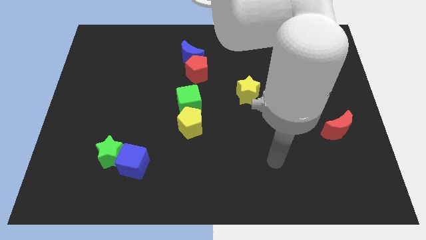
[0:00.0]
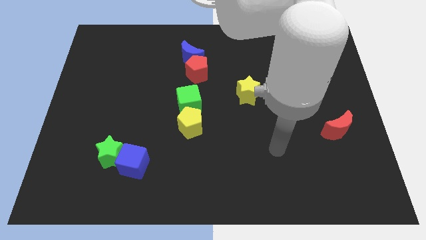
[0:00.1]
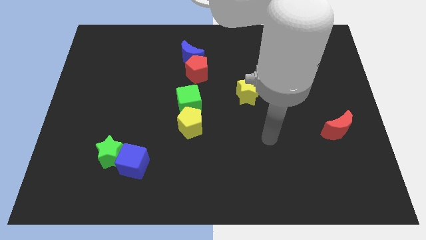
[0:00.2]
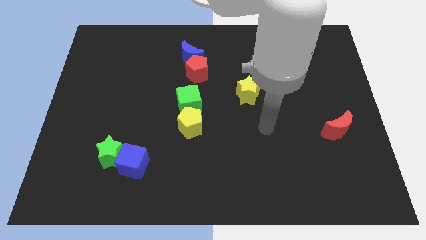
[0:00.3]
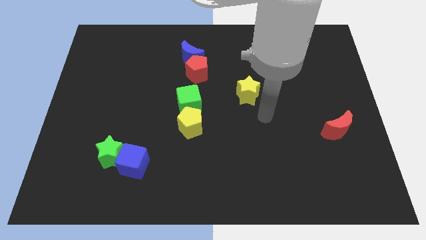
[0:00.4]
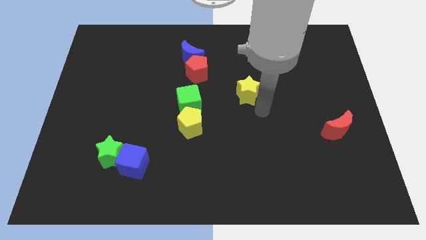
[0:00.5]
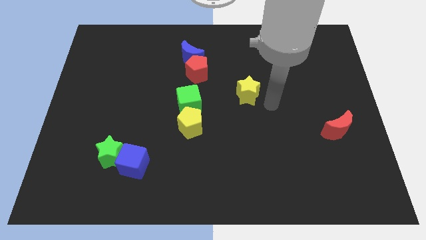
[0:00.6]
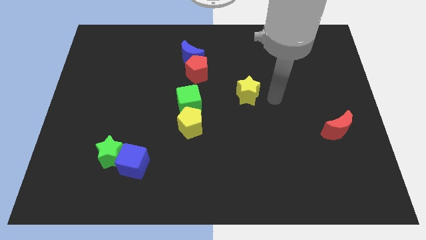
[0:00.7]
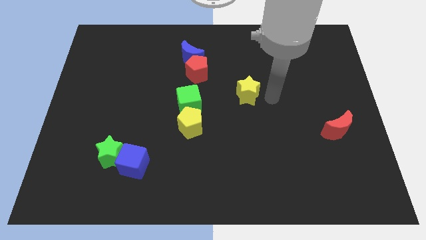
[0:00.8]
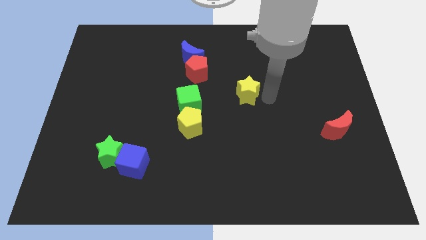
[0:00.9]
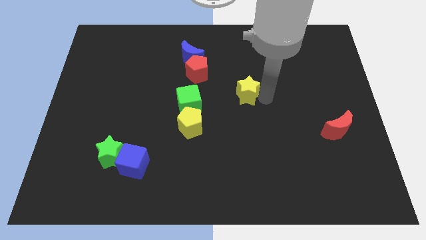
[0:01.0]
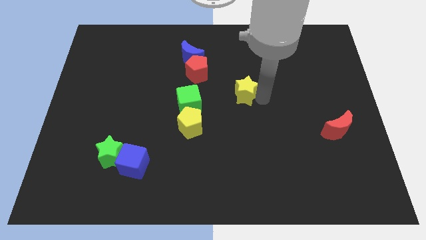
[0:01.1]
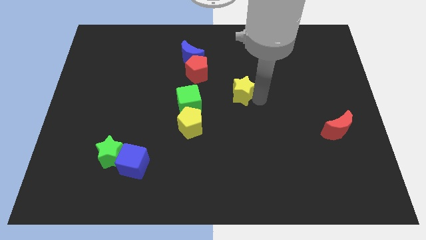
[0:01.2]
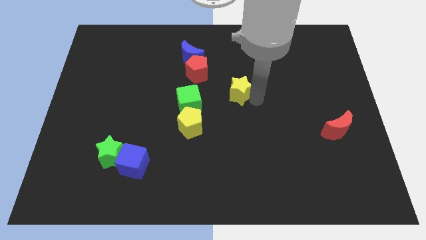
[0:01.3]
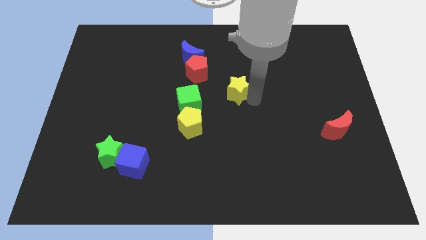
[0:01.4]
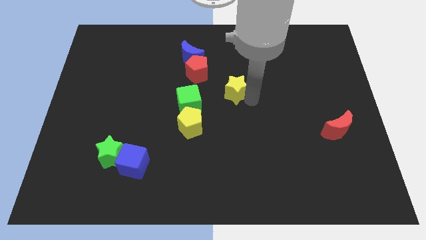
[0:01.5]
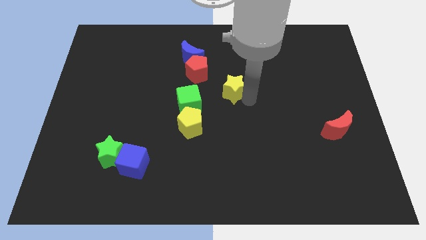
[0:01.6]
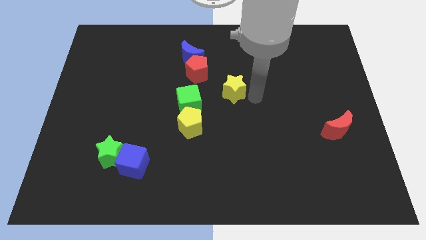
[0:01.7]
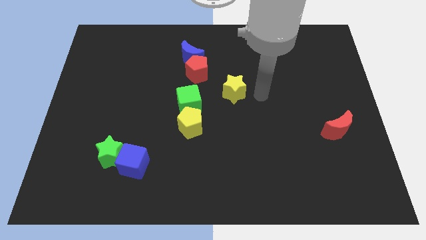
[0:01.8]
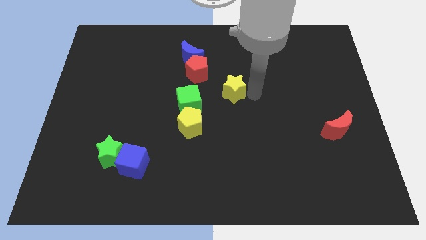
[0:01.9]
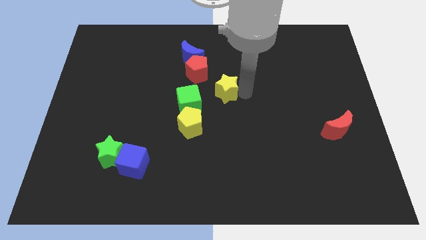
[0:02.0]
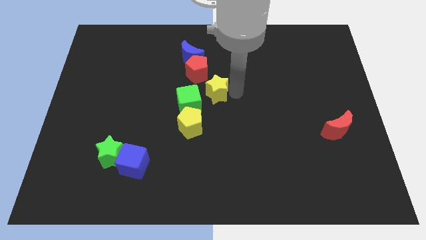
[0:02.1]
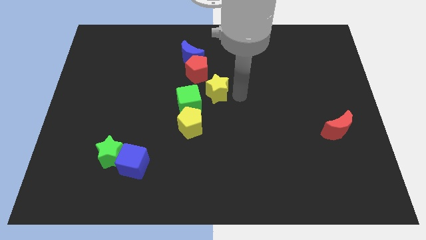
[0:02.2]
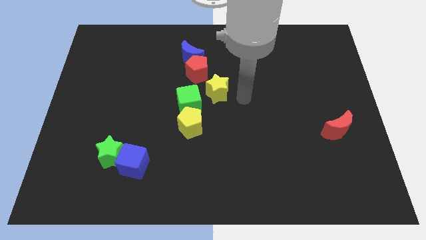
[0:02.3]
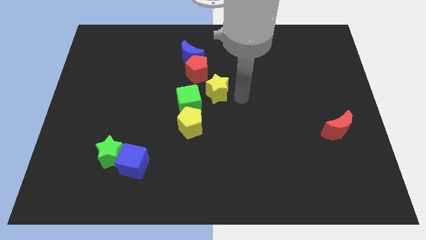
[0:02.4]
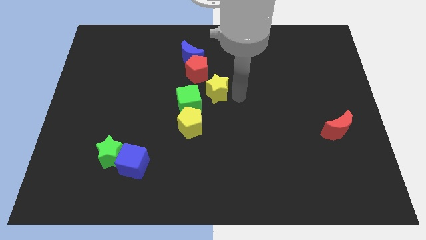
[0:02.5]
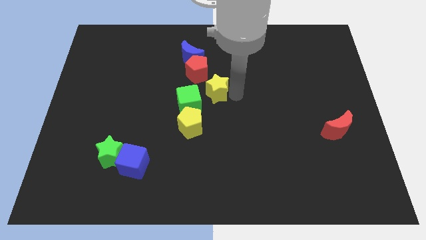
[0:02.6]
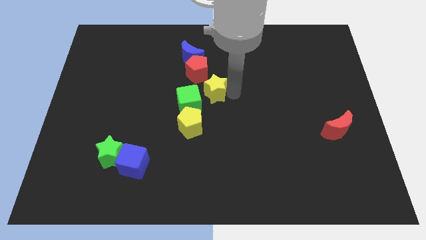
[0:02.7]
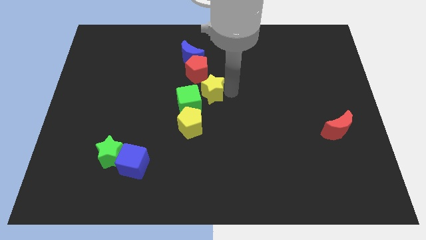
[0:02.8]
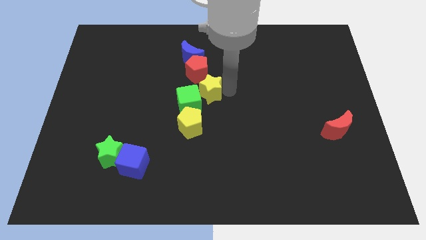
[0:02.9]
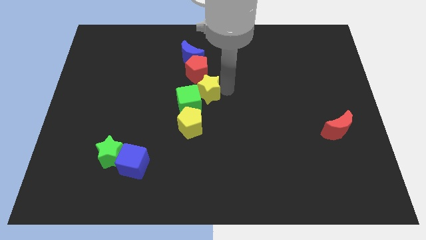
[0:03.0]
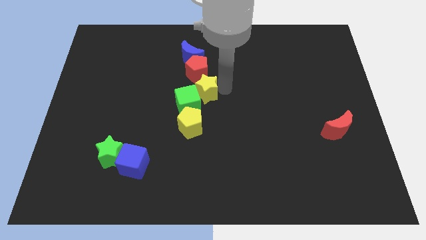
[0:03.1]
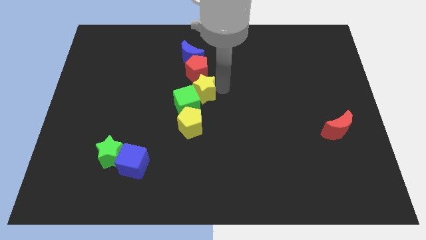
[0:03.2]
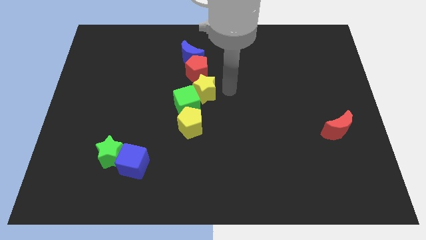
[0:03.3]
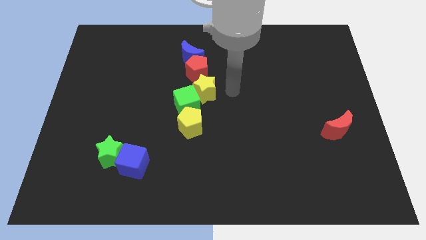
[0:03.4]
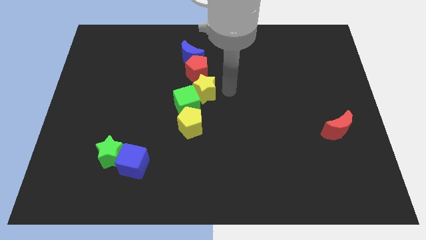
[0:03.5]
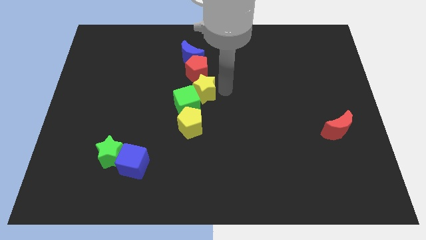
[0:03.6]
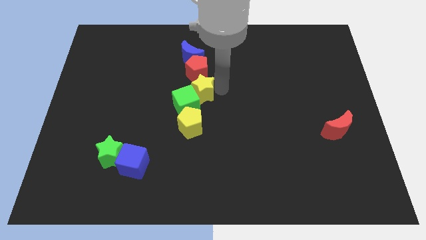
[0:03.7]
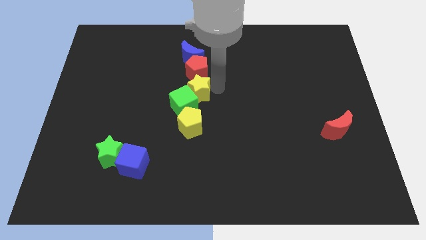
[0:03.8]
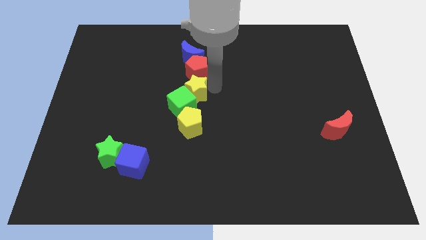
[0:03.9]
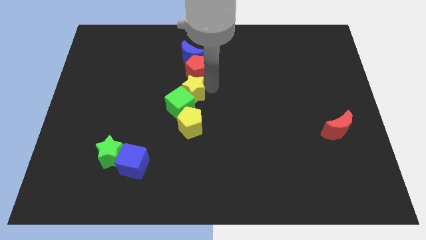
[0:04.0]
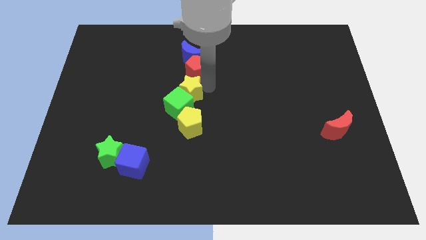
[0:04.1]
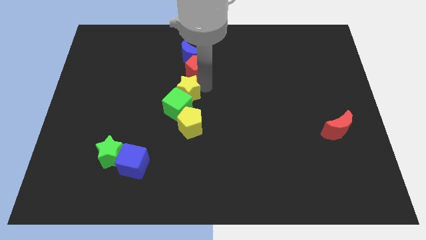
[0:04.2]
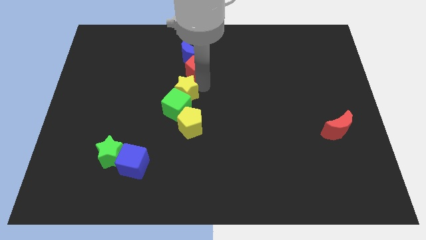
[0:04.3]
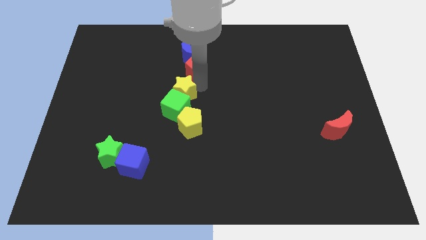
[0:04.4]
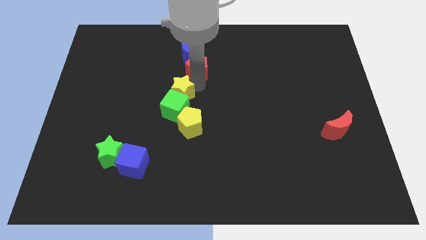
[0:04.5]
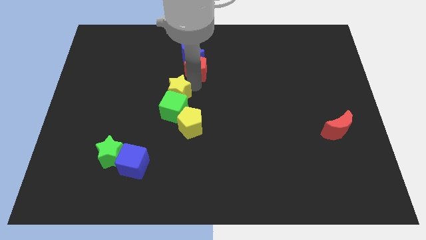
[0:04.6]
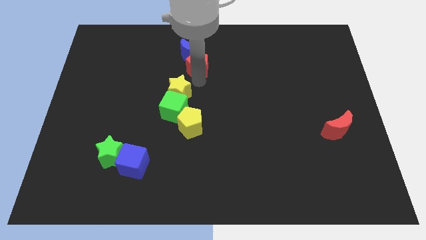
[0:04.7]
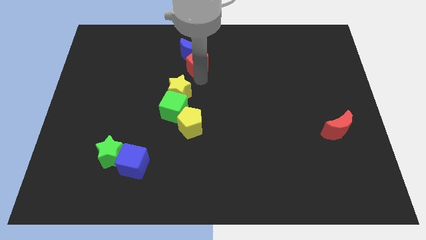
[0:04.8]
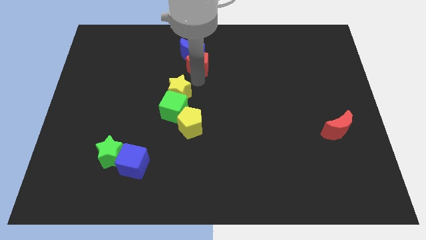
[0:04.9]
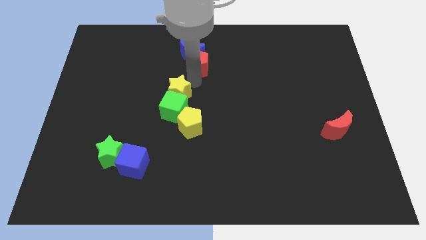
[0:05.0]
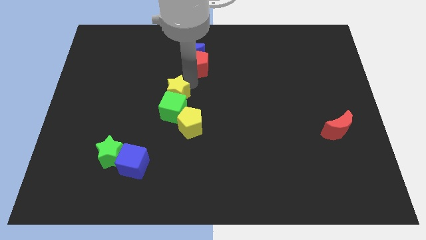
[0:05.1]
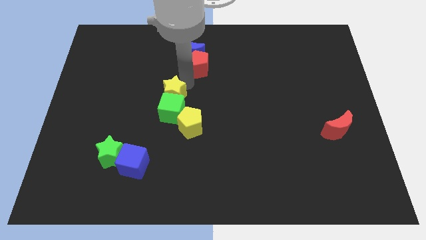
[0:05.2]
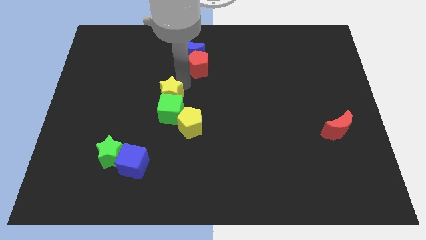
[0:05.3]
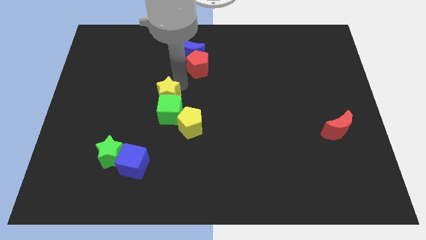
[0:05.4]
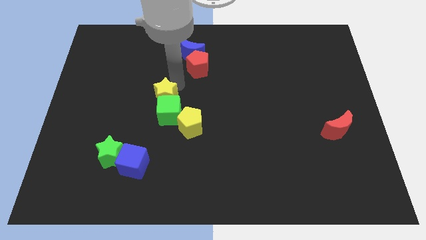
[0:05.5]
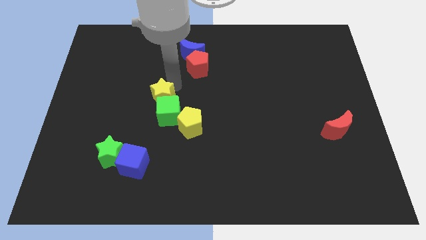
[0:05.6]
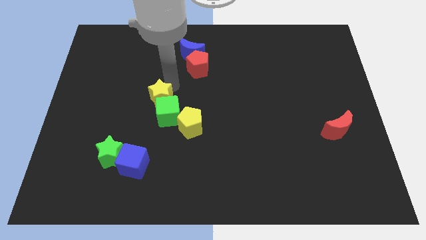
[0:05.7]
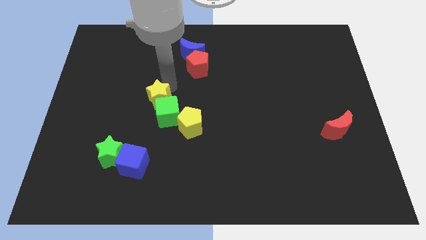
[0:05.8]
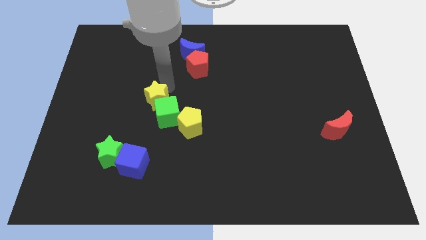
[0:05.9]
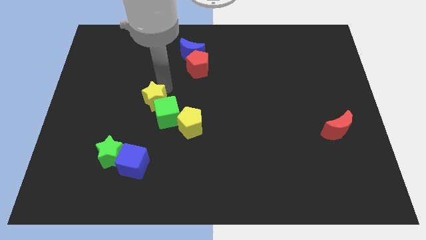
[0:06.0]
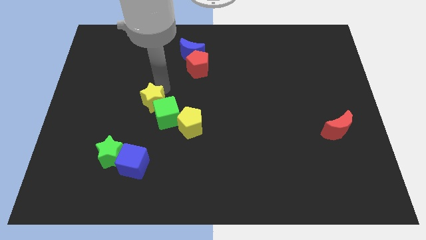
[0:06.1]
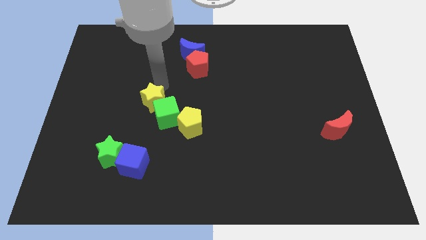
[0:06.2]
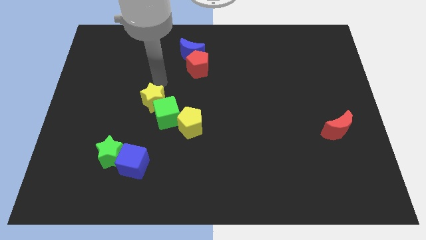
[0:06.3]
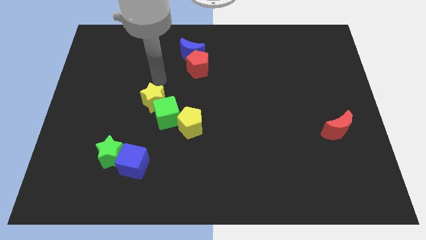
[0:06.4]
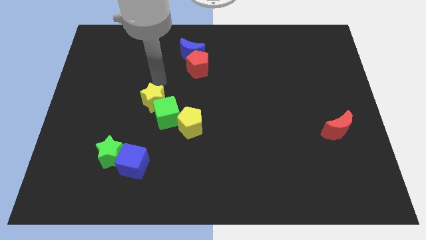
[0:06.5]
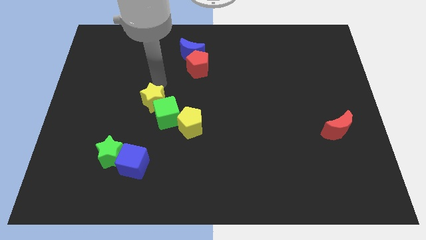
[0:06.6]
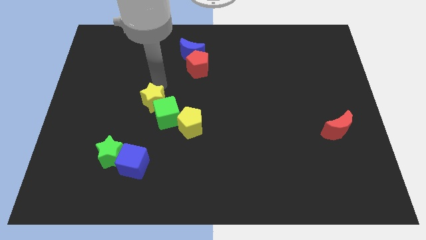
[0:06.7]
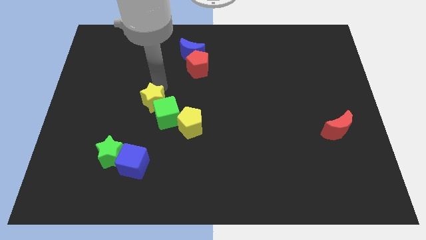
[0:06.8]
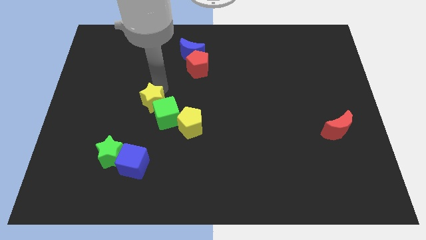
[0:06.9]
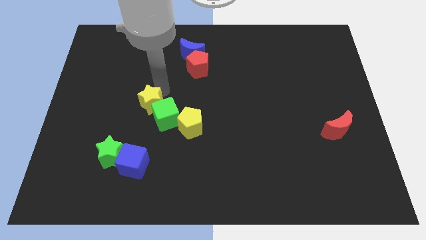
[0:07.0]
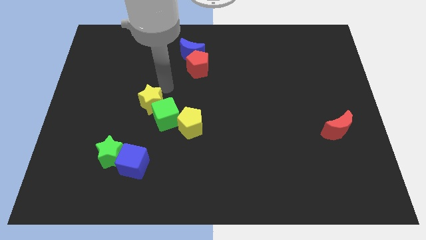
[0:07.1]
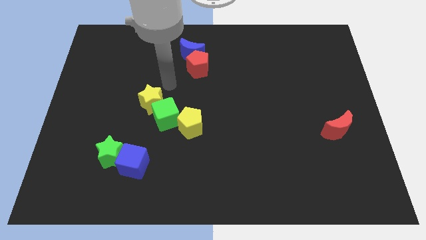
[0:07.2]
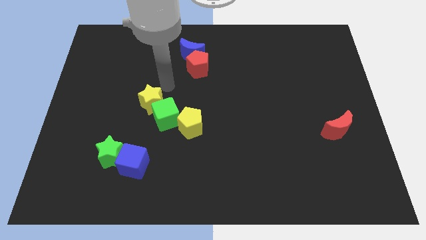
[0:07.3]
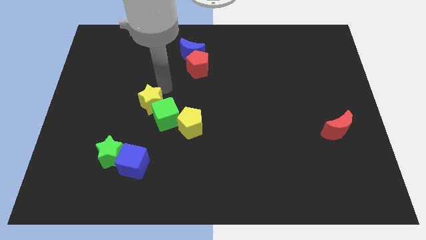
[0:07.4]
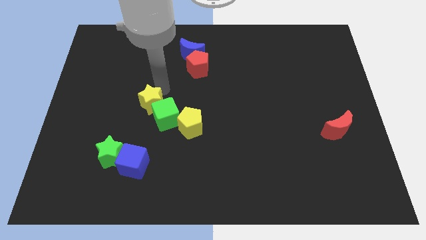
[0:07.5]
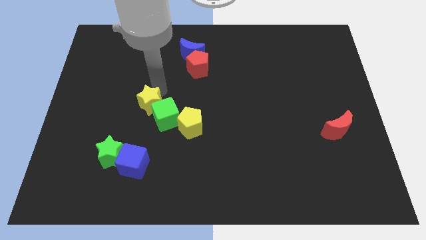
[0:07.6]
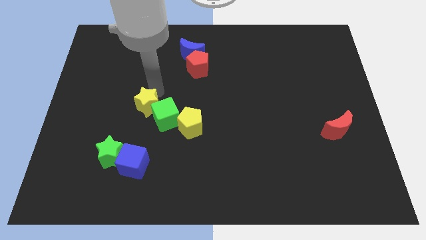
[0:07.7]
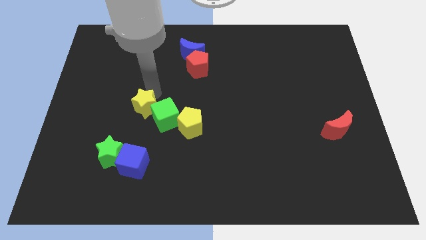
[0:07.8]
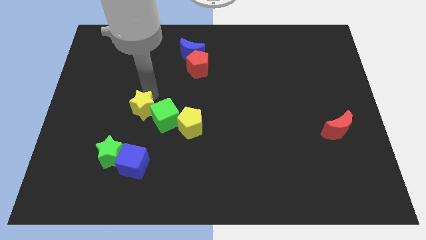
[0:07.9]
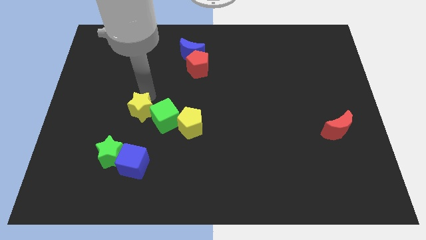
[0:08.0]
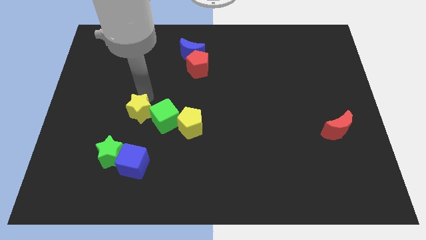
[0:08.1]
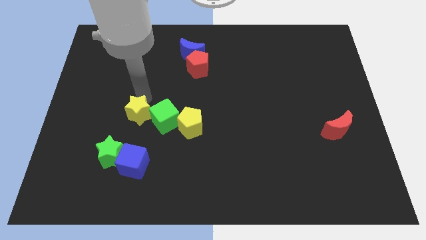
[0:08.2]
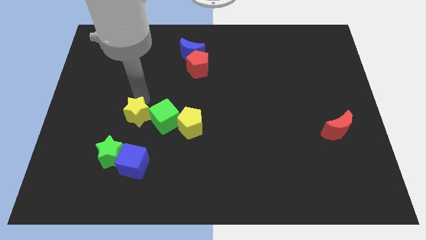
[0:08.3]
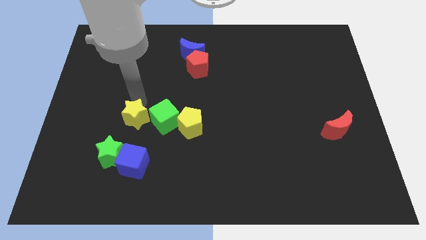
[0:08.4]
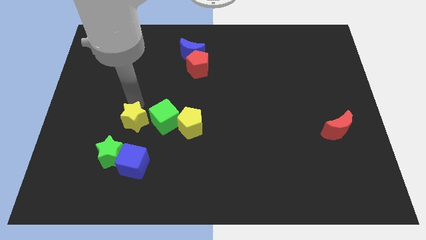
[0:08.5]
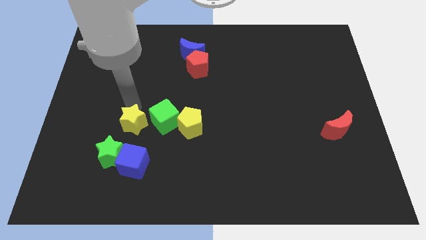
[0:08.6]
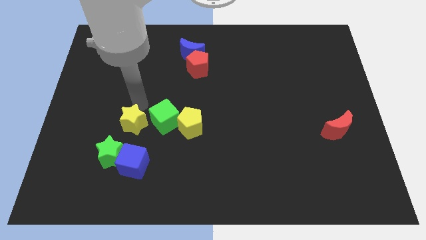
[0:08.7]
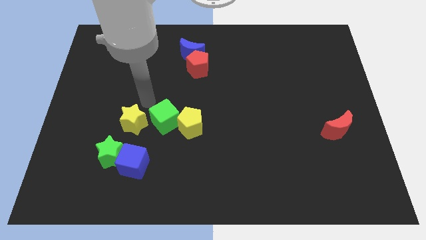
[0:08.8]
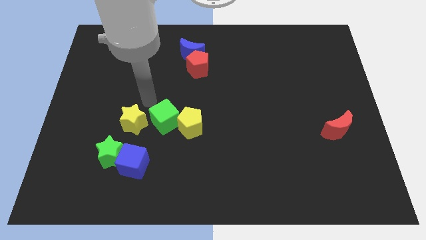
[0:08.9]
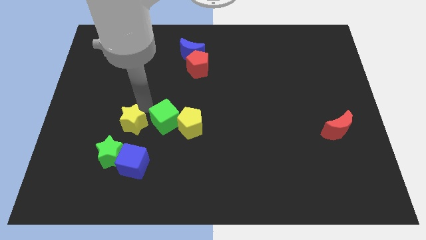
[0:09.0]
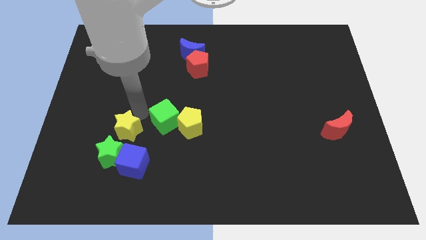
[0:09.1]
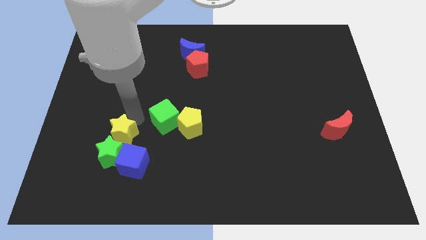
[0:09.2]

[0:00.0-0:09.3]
slide the yellow star next to the green star
